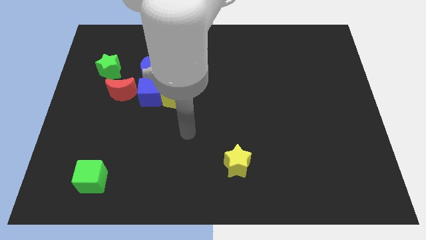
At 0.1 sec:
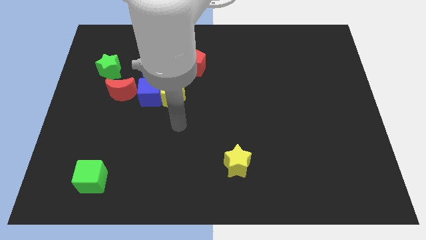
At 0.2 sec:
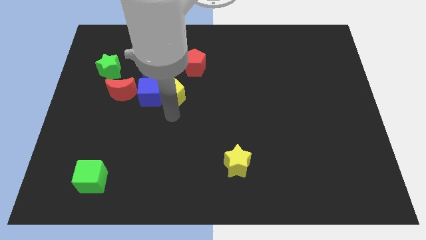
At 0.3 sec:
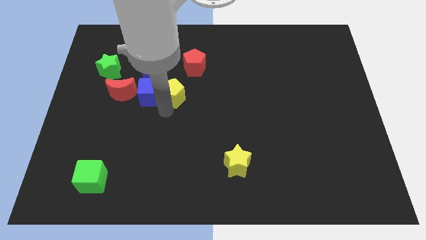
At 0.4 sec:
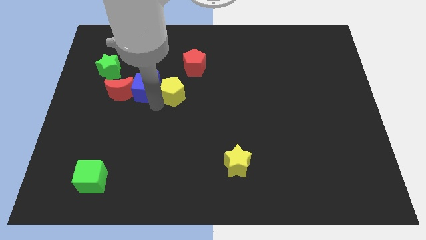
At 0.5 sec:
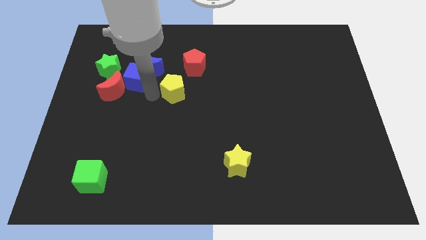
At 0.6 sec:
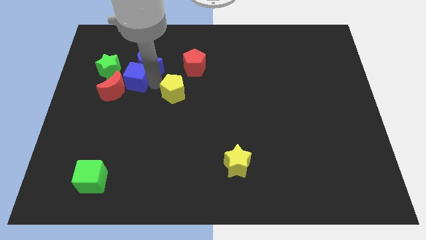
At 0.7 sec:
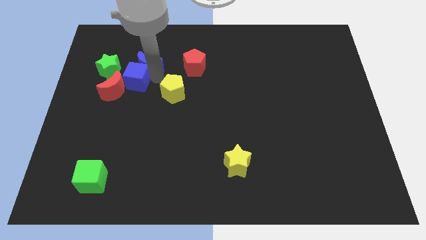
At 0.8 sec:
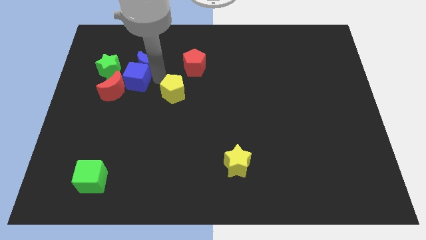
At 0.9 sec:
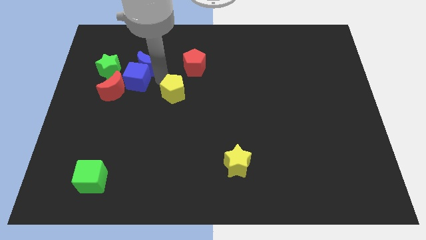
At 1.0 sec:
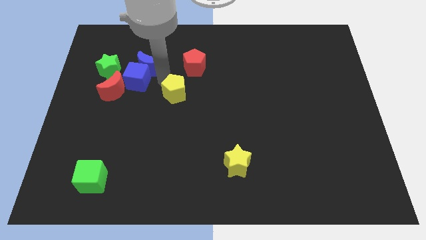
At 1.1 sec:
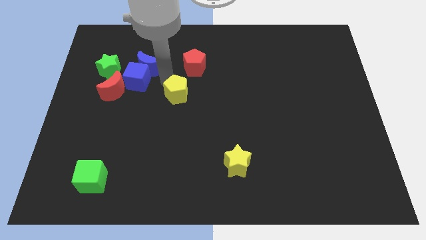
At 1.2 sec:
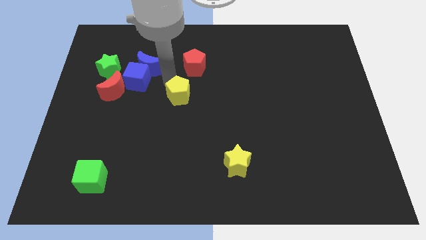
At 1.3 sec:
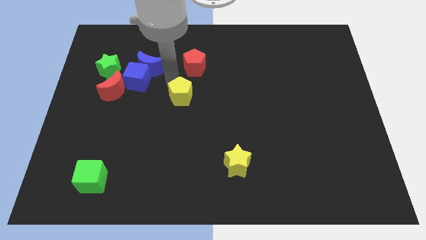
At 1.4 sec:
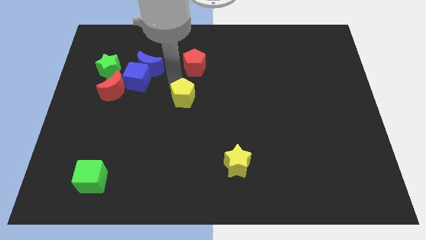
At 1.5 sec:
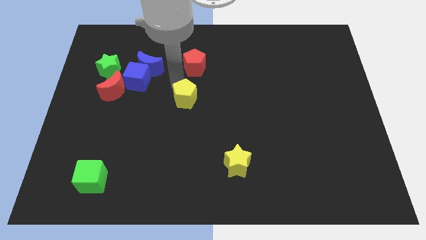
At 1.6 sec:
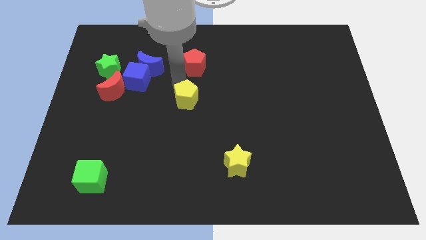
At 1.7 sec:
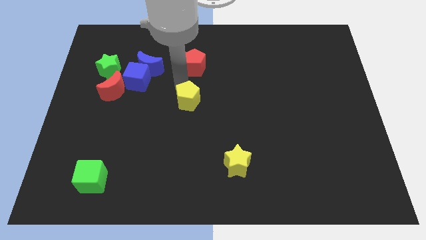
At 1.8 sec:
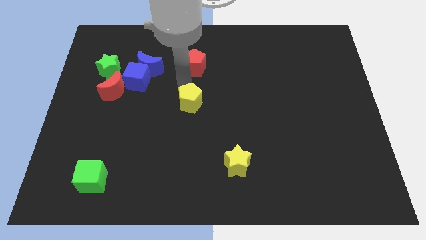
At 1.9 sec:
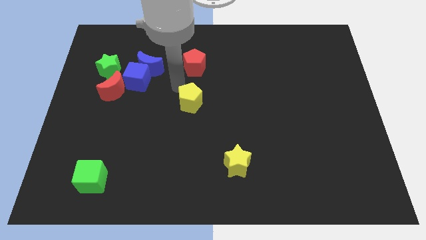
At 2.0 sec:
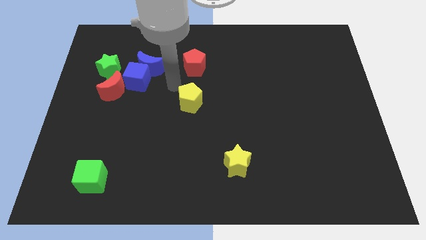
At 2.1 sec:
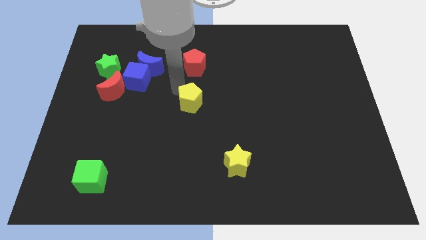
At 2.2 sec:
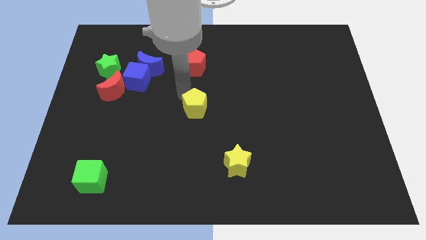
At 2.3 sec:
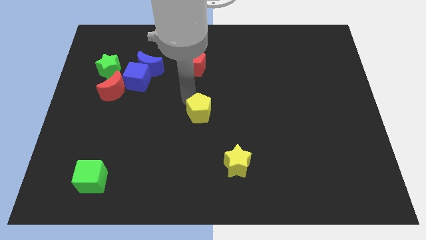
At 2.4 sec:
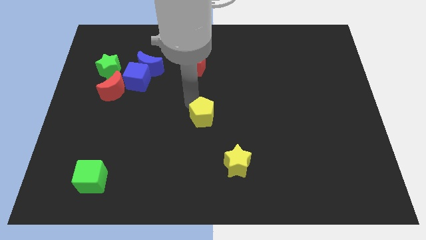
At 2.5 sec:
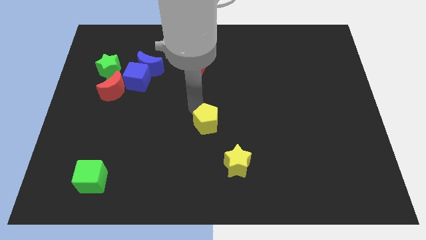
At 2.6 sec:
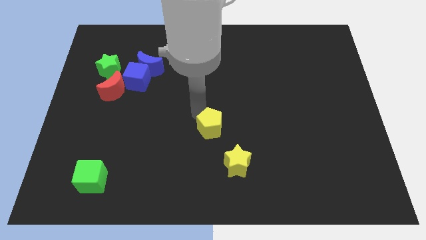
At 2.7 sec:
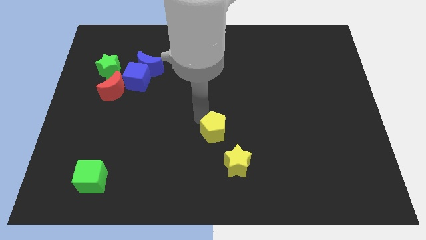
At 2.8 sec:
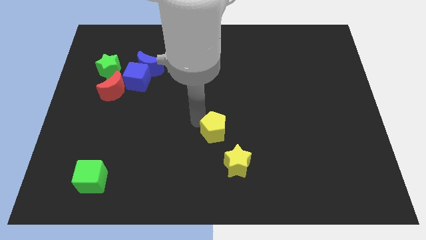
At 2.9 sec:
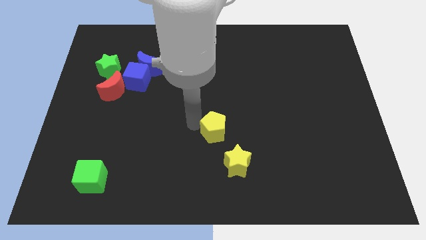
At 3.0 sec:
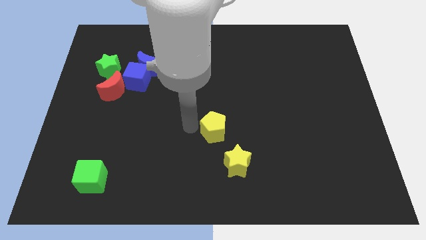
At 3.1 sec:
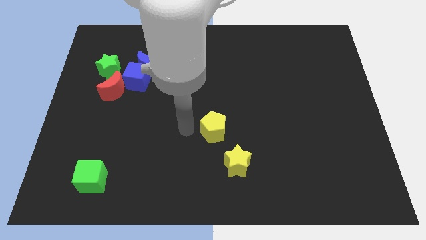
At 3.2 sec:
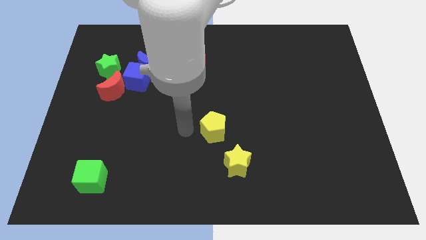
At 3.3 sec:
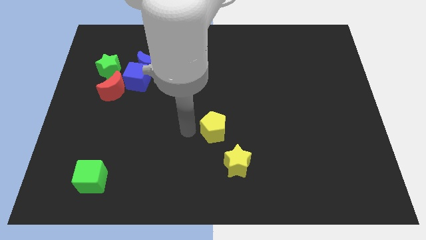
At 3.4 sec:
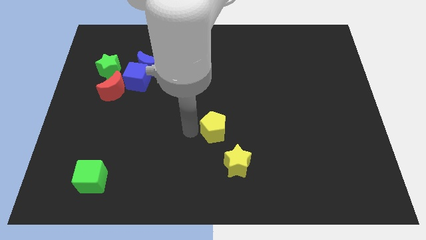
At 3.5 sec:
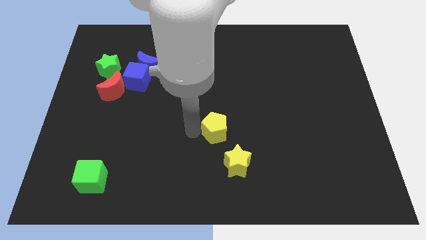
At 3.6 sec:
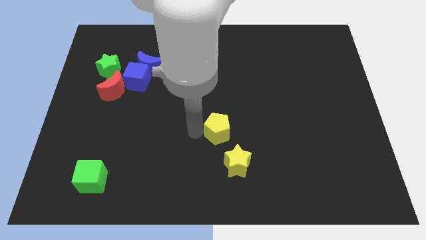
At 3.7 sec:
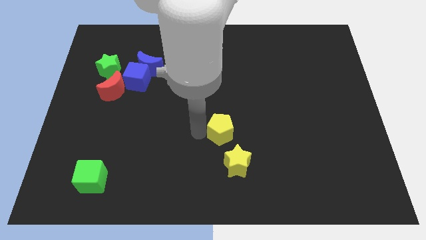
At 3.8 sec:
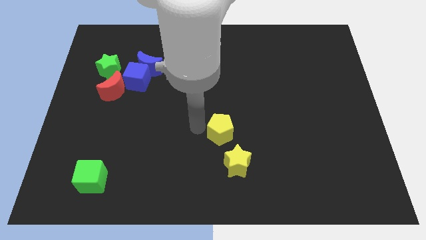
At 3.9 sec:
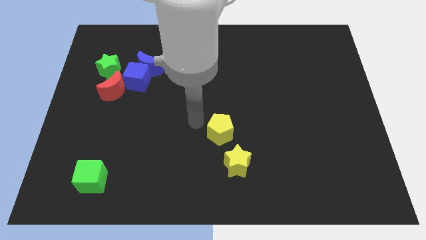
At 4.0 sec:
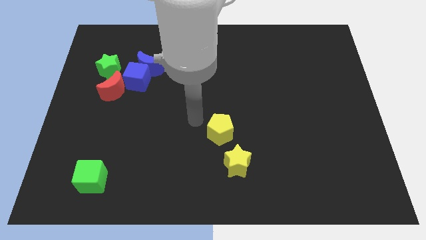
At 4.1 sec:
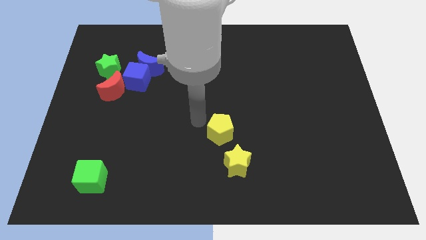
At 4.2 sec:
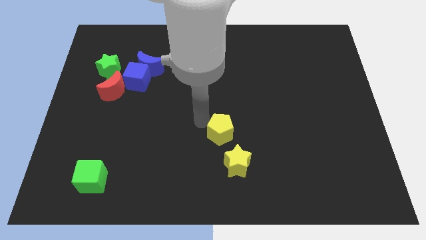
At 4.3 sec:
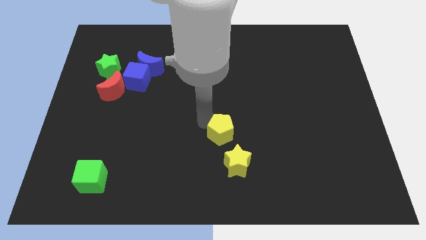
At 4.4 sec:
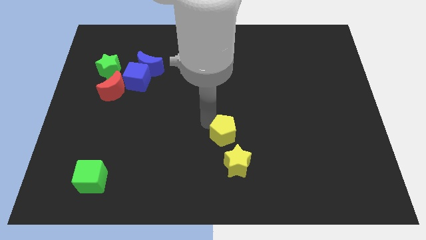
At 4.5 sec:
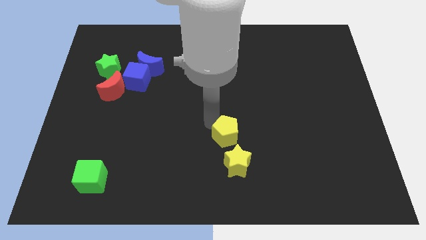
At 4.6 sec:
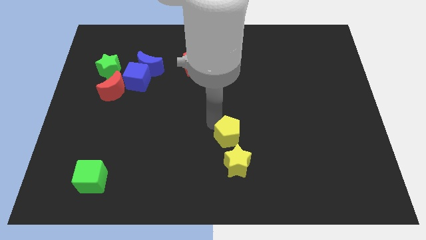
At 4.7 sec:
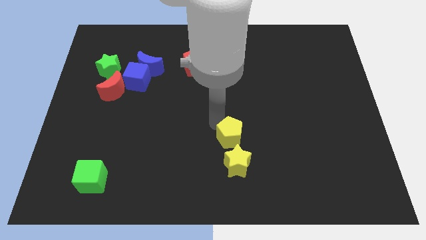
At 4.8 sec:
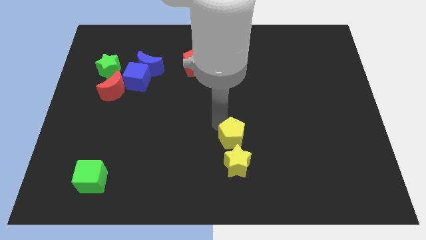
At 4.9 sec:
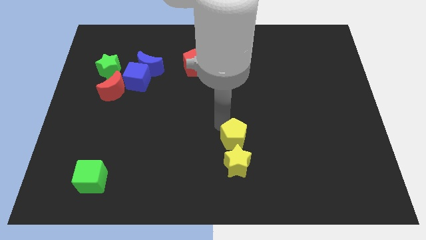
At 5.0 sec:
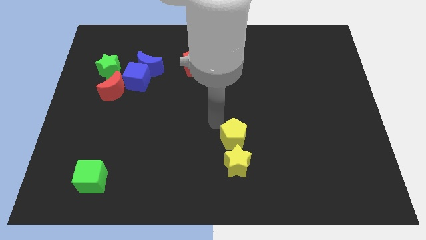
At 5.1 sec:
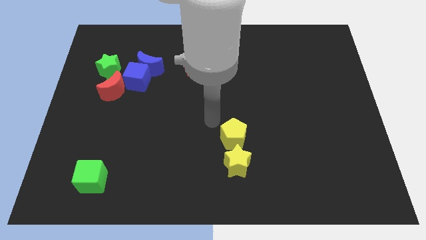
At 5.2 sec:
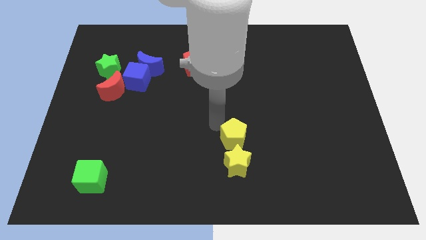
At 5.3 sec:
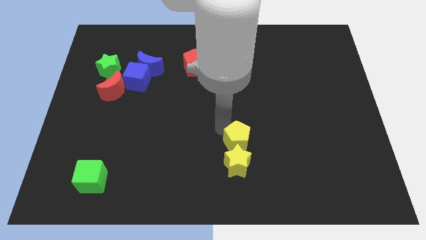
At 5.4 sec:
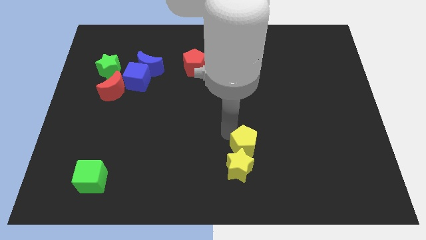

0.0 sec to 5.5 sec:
move the yellow pentagon downwards and to the right diagonally

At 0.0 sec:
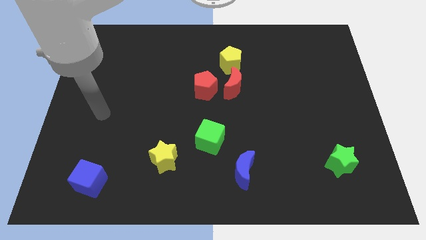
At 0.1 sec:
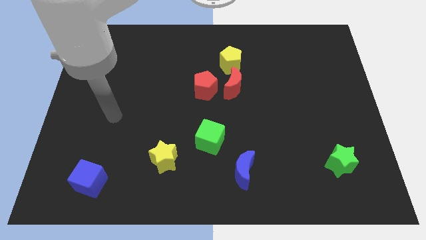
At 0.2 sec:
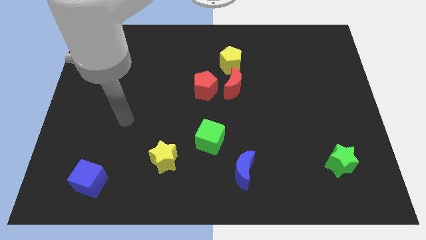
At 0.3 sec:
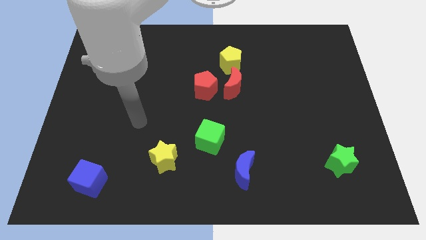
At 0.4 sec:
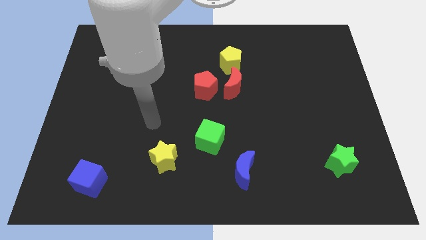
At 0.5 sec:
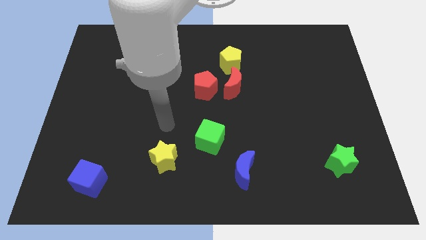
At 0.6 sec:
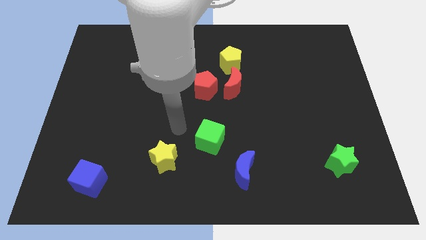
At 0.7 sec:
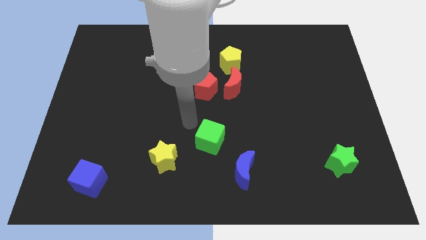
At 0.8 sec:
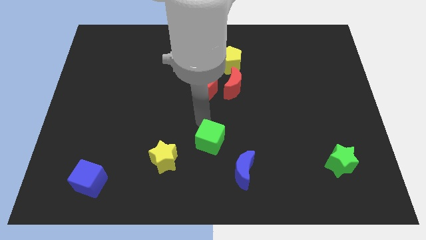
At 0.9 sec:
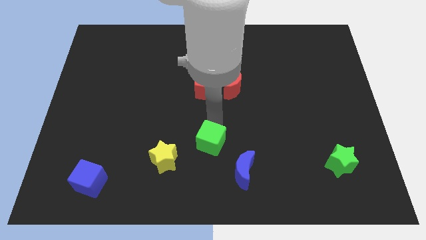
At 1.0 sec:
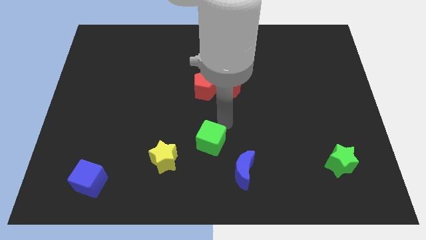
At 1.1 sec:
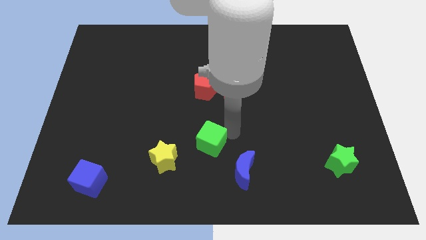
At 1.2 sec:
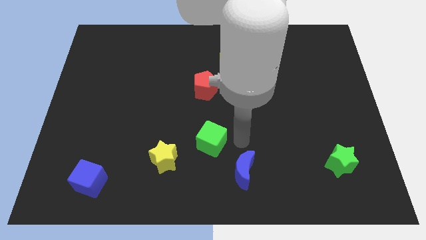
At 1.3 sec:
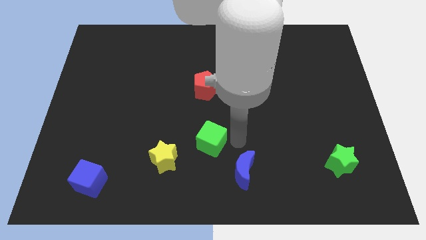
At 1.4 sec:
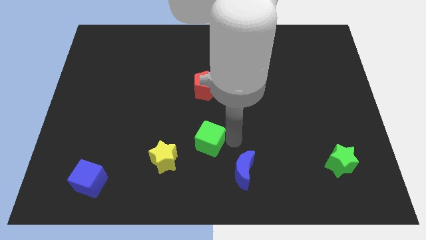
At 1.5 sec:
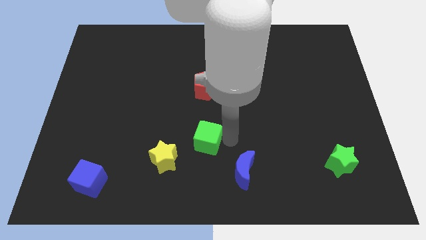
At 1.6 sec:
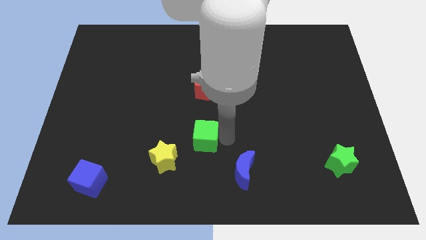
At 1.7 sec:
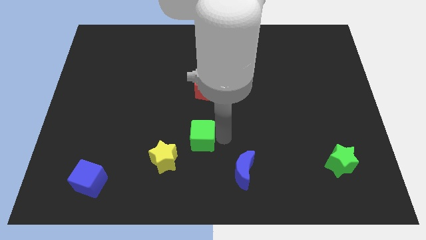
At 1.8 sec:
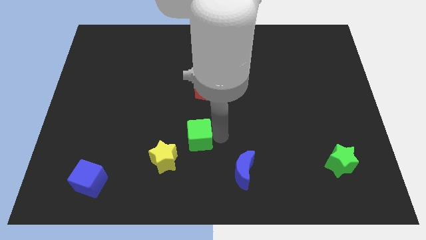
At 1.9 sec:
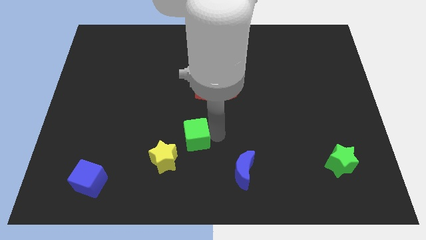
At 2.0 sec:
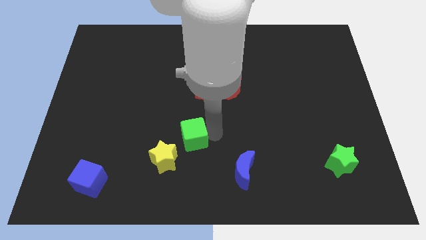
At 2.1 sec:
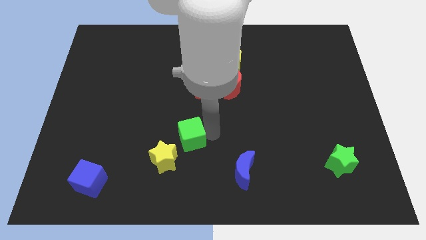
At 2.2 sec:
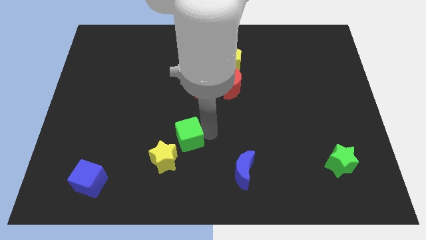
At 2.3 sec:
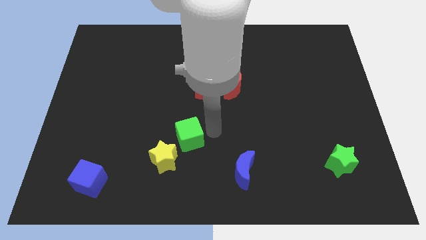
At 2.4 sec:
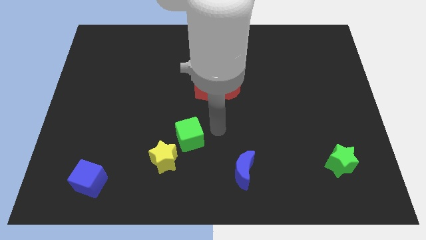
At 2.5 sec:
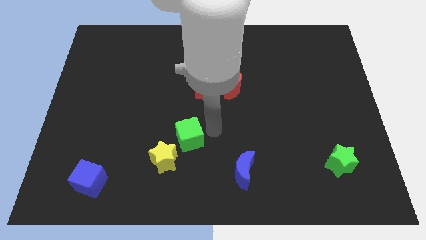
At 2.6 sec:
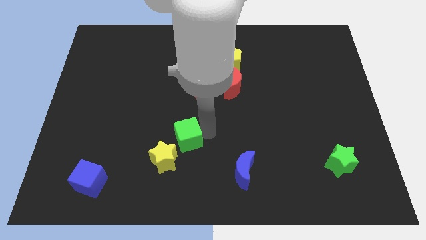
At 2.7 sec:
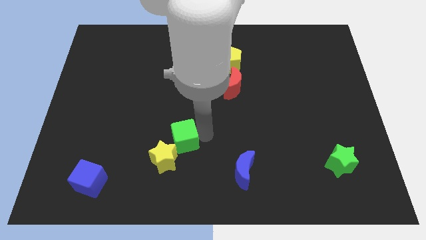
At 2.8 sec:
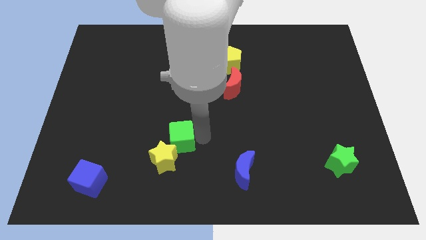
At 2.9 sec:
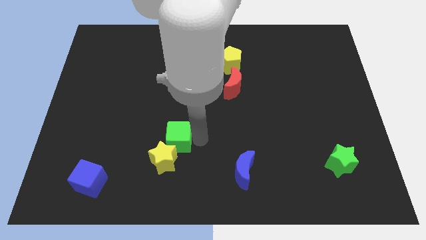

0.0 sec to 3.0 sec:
slightly push the green cube left
